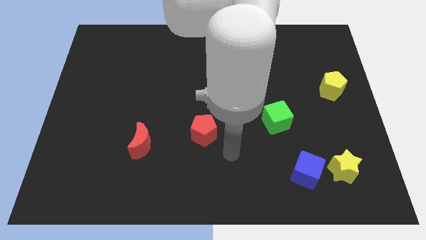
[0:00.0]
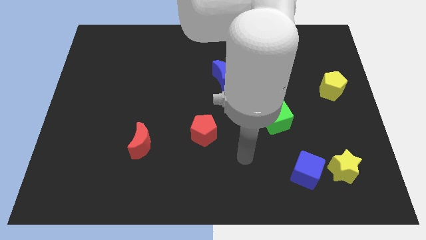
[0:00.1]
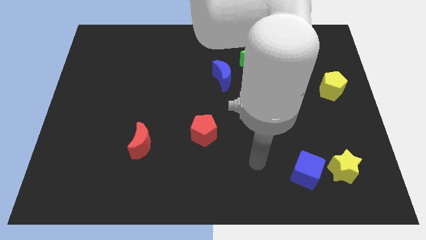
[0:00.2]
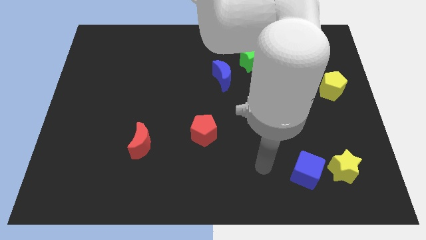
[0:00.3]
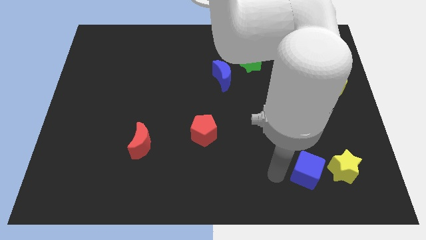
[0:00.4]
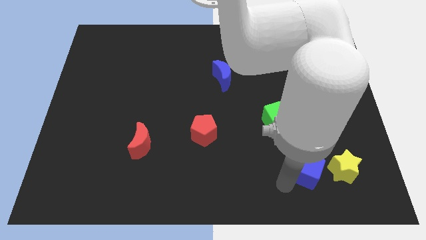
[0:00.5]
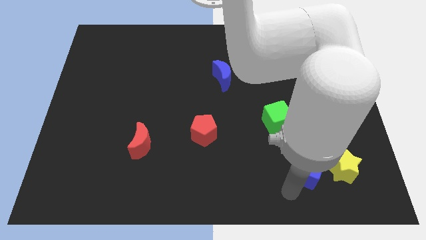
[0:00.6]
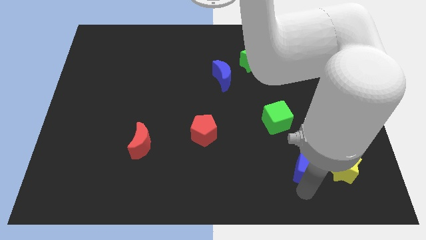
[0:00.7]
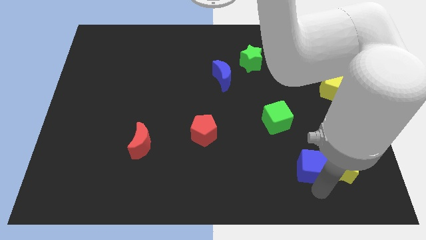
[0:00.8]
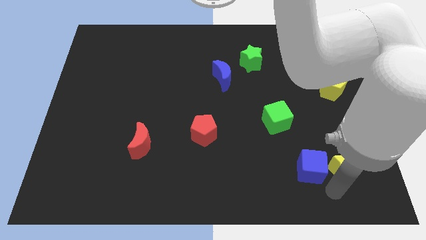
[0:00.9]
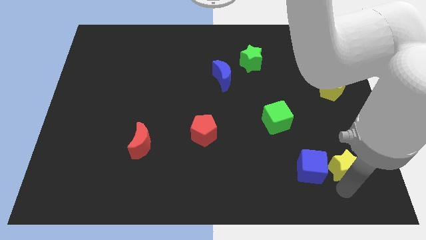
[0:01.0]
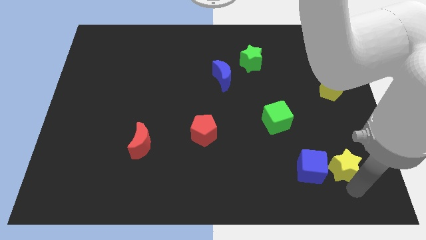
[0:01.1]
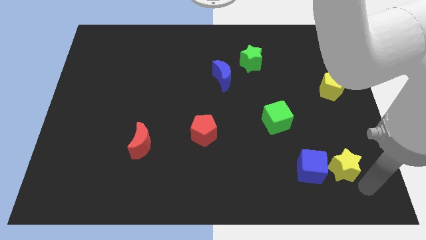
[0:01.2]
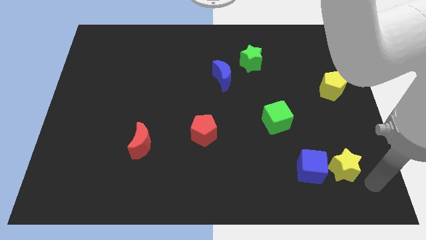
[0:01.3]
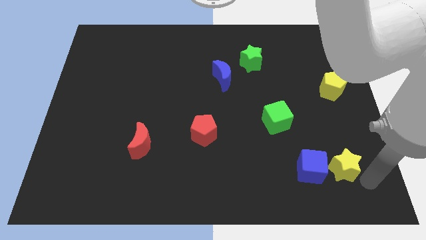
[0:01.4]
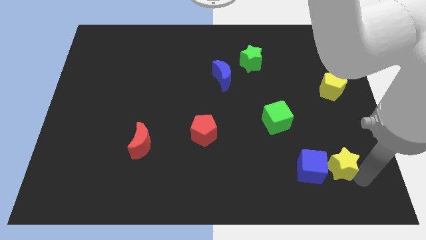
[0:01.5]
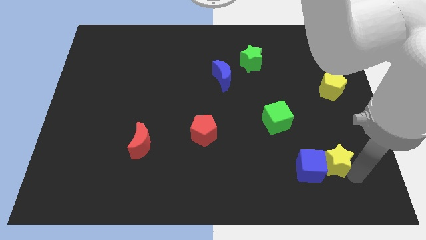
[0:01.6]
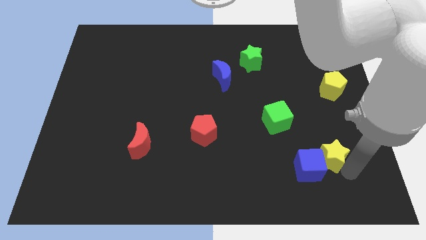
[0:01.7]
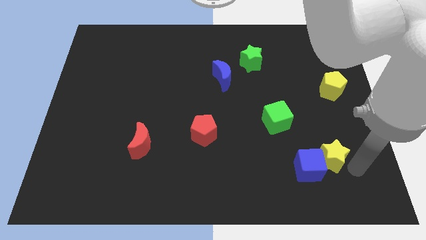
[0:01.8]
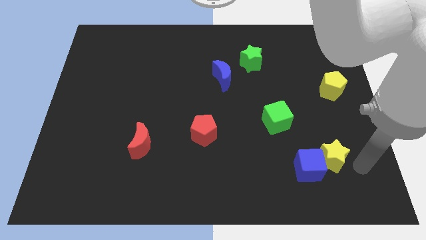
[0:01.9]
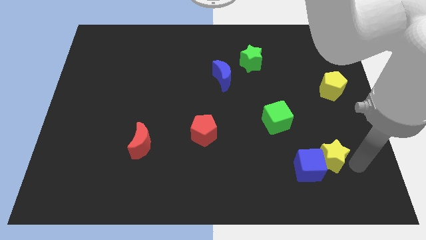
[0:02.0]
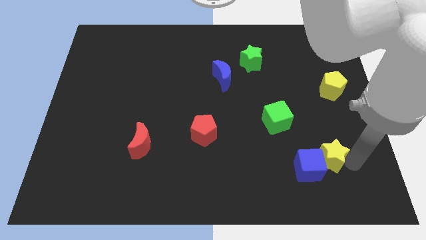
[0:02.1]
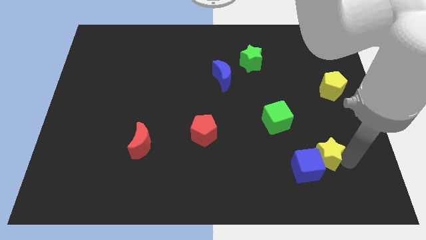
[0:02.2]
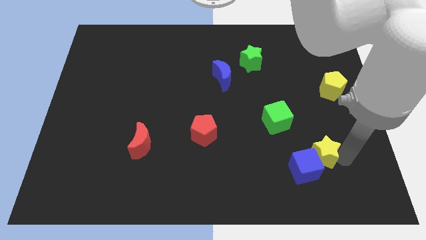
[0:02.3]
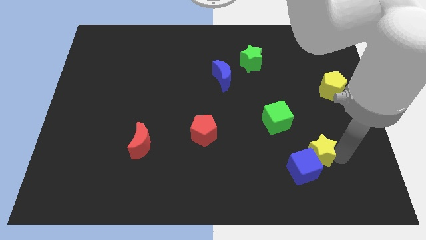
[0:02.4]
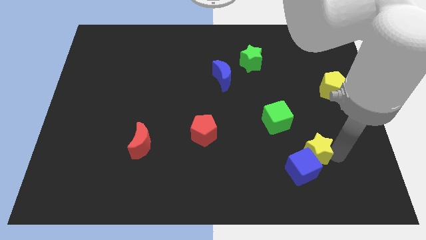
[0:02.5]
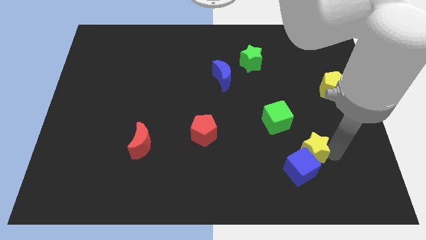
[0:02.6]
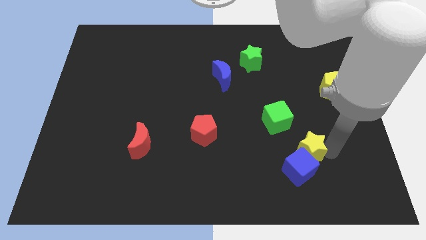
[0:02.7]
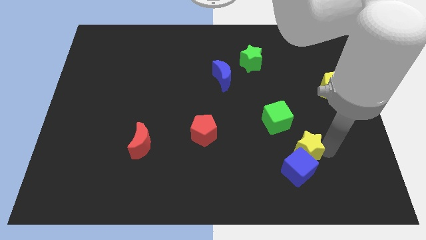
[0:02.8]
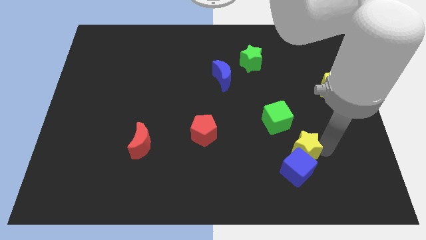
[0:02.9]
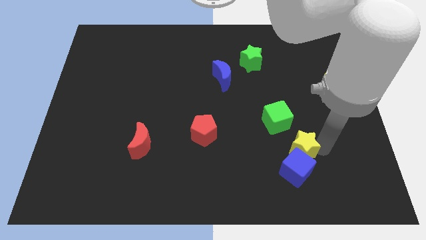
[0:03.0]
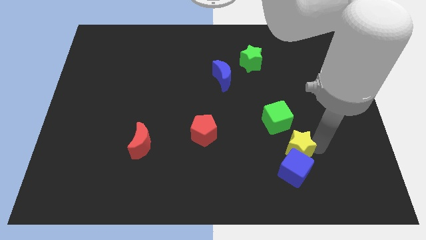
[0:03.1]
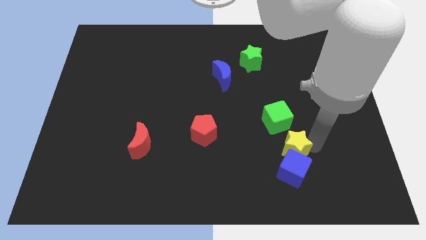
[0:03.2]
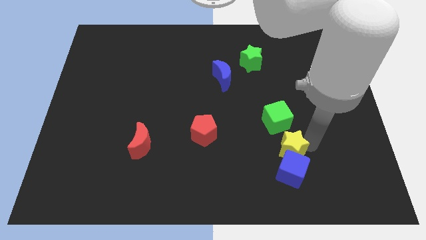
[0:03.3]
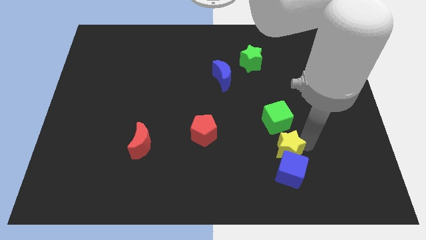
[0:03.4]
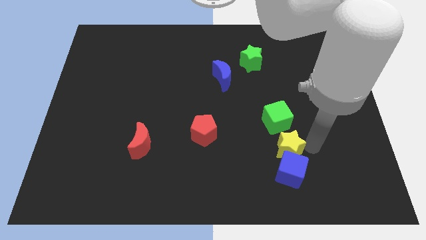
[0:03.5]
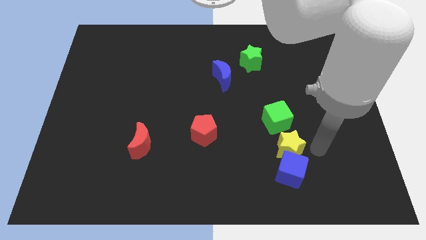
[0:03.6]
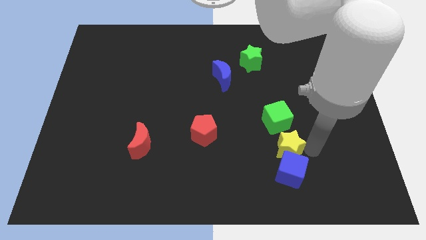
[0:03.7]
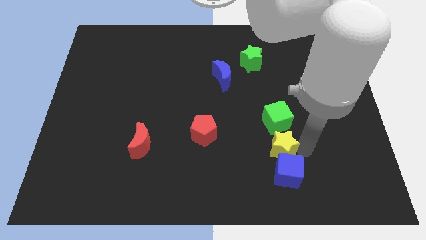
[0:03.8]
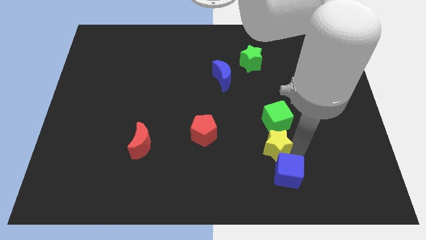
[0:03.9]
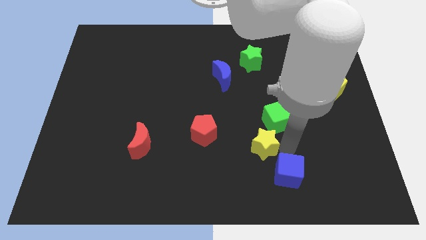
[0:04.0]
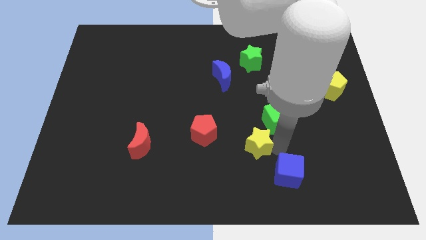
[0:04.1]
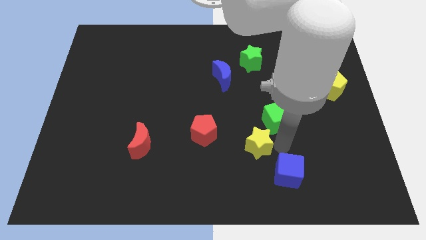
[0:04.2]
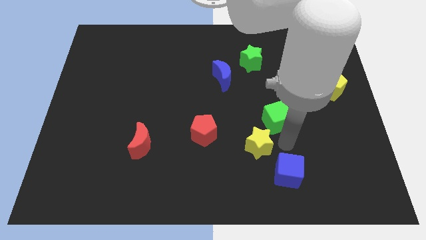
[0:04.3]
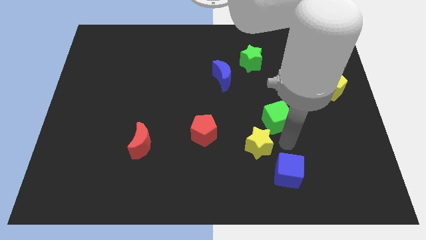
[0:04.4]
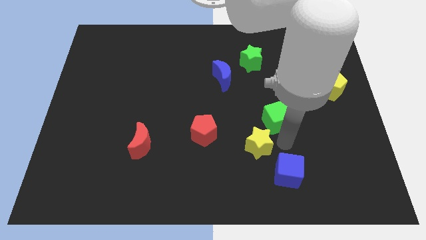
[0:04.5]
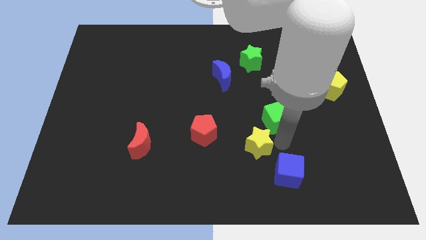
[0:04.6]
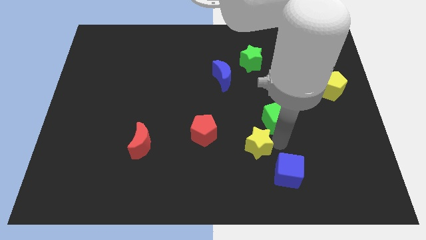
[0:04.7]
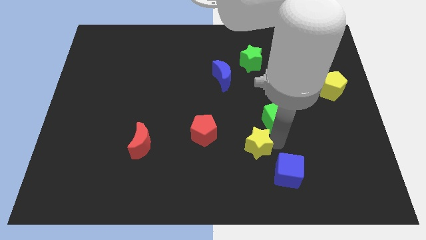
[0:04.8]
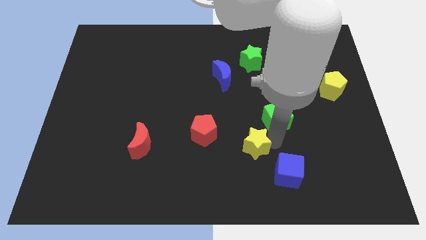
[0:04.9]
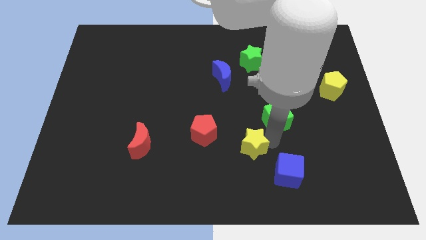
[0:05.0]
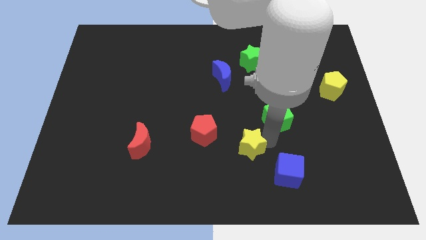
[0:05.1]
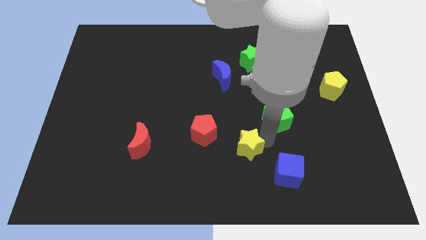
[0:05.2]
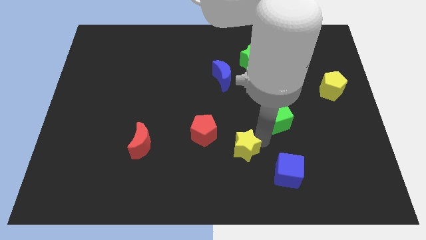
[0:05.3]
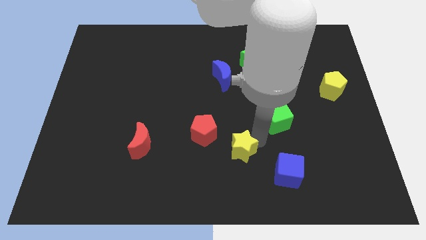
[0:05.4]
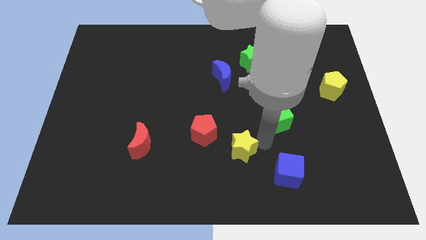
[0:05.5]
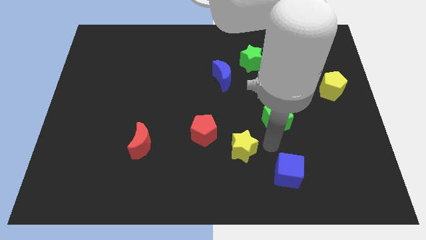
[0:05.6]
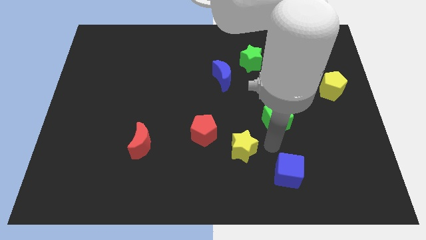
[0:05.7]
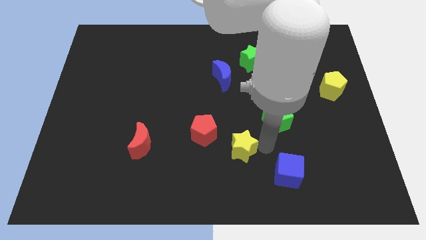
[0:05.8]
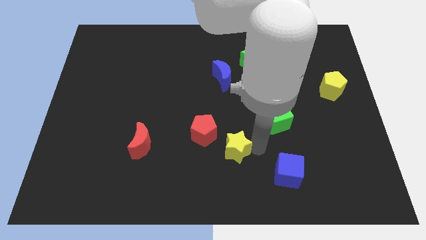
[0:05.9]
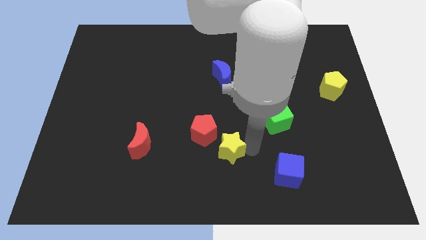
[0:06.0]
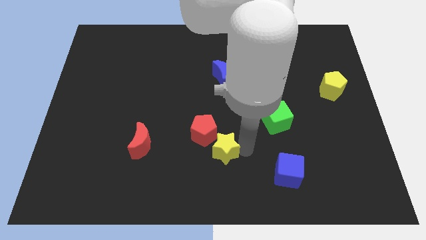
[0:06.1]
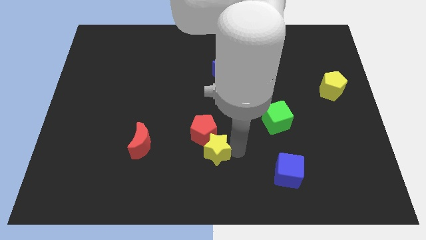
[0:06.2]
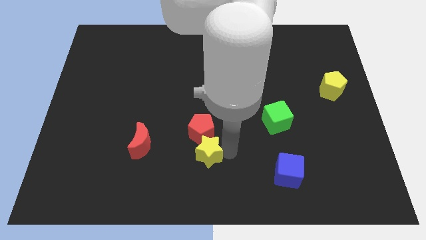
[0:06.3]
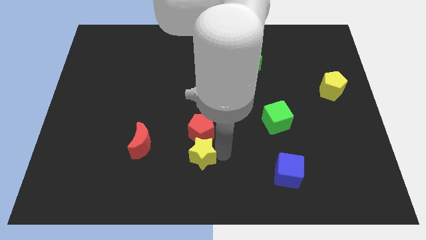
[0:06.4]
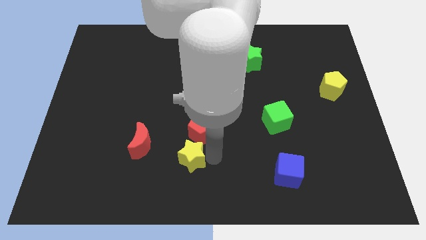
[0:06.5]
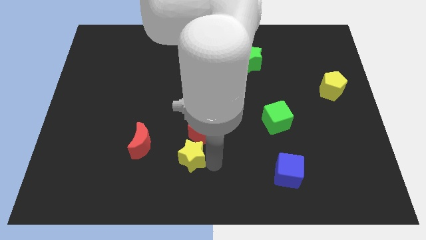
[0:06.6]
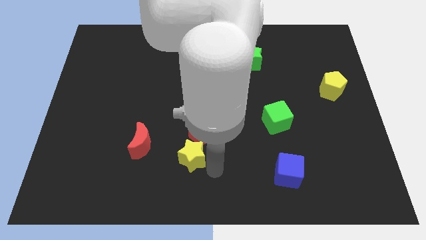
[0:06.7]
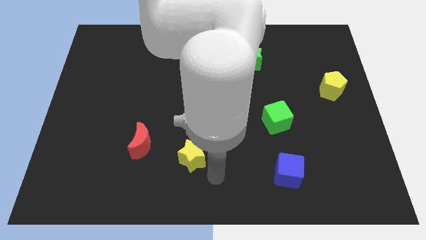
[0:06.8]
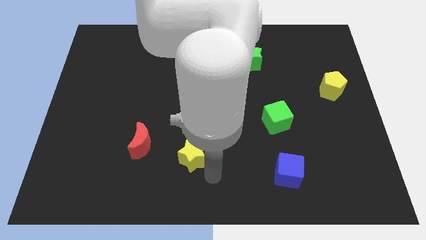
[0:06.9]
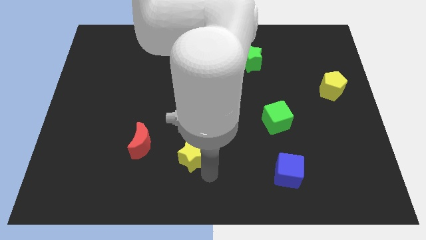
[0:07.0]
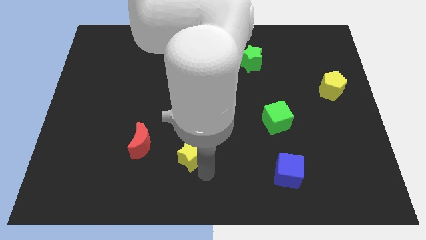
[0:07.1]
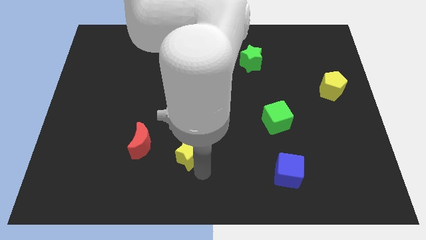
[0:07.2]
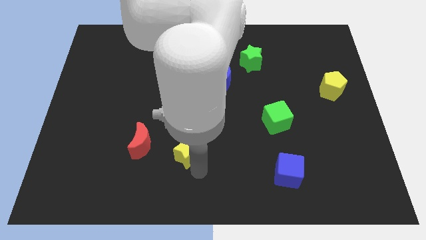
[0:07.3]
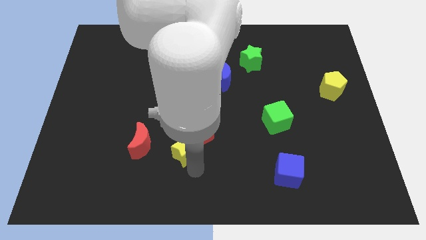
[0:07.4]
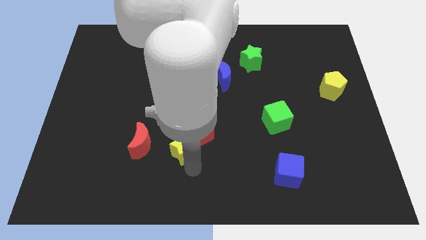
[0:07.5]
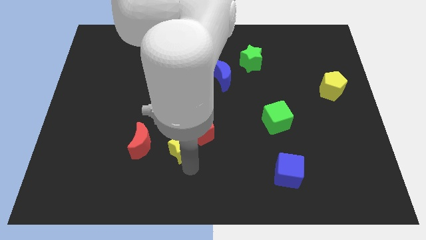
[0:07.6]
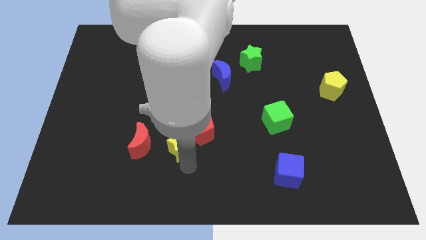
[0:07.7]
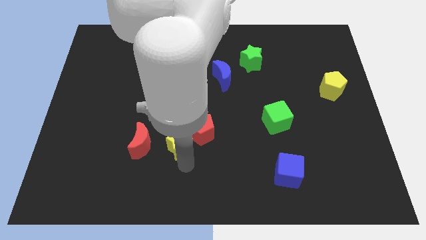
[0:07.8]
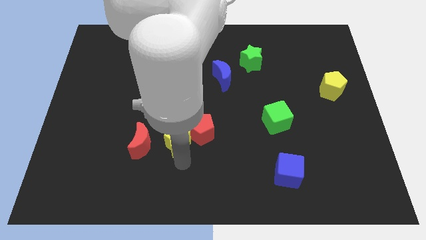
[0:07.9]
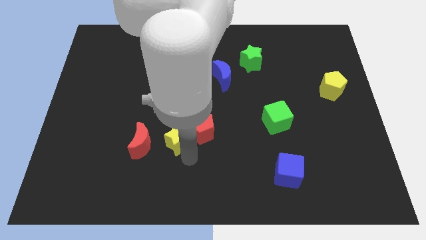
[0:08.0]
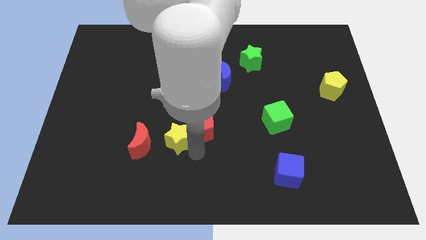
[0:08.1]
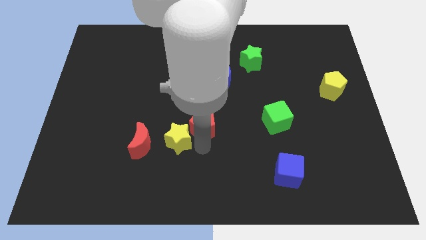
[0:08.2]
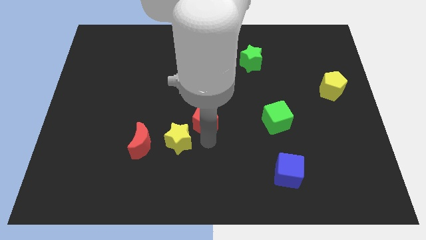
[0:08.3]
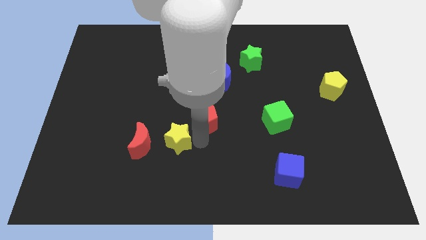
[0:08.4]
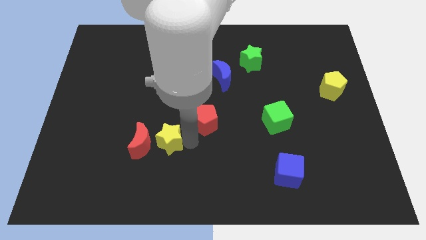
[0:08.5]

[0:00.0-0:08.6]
slide the yellow star to the red moon

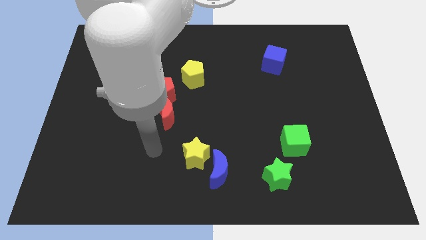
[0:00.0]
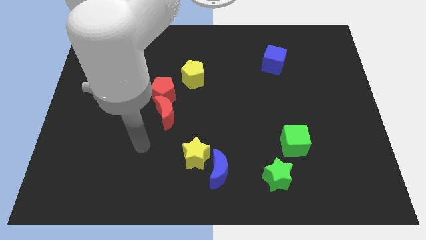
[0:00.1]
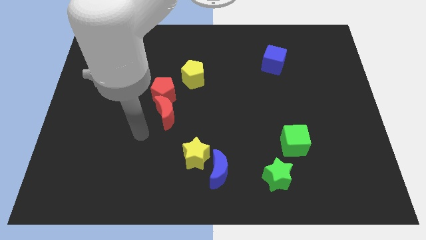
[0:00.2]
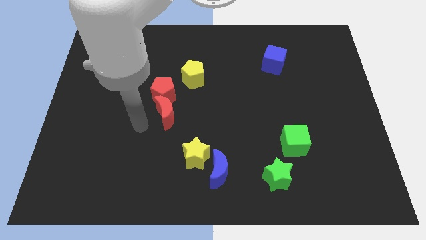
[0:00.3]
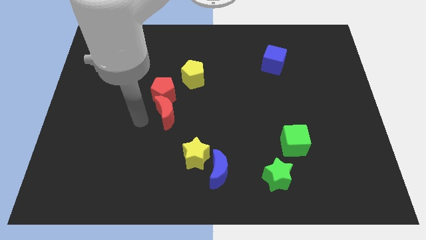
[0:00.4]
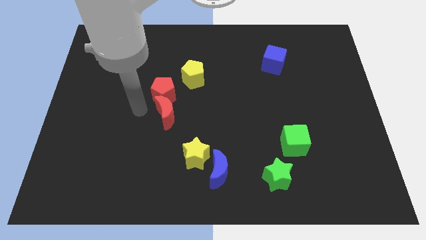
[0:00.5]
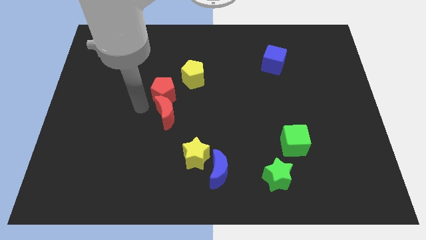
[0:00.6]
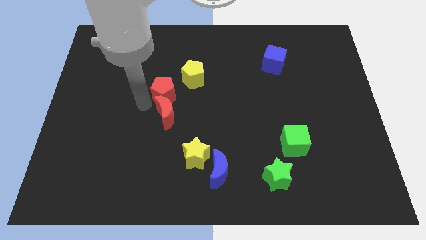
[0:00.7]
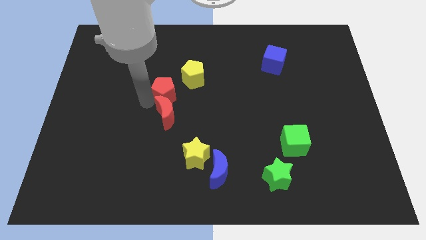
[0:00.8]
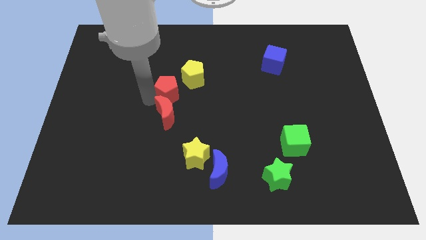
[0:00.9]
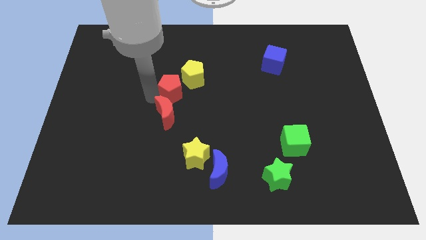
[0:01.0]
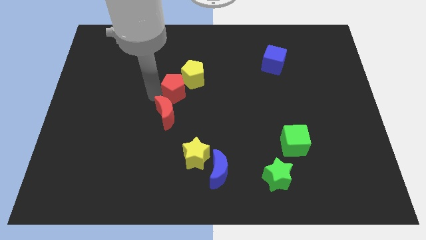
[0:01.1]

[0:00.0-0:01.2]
slide the red pentagon close to the yellow pentagon
